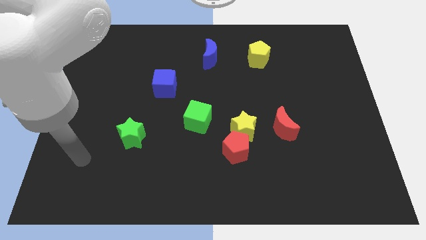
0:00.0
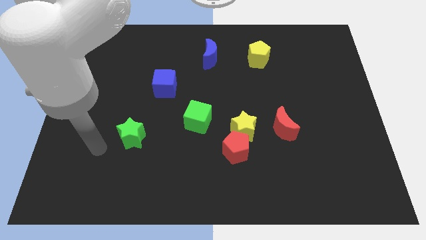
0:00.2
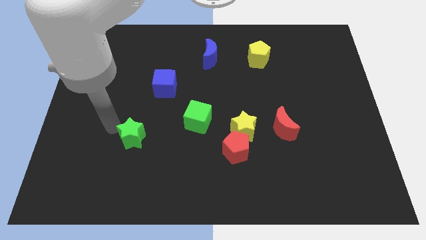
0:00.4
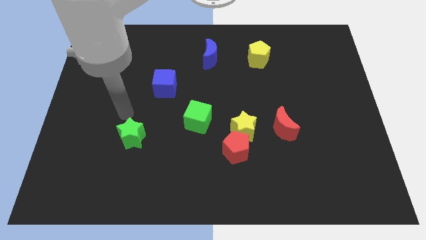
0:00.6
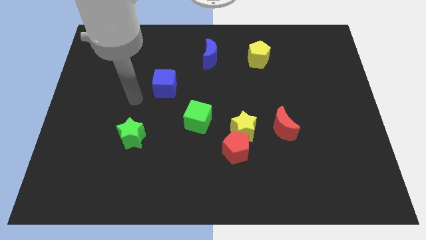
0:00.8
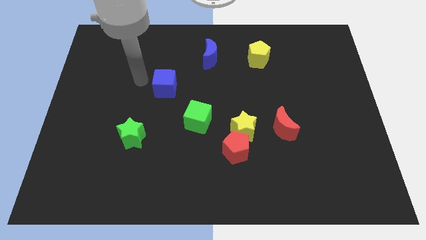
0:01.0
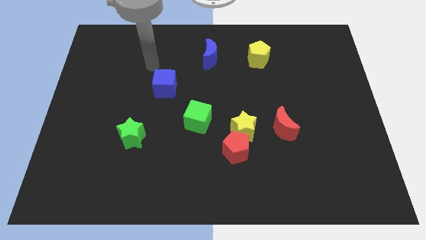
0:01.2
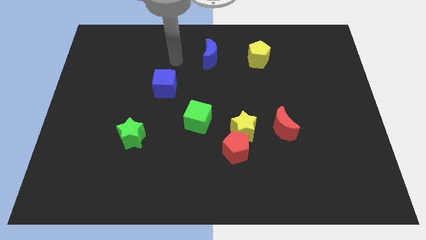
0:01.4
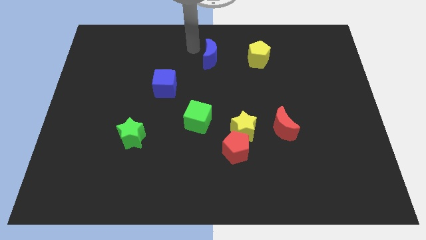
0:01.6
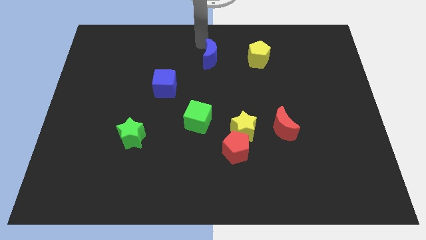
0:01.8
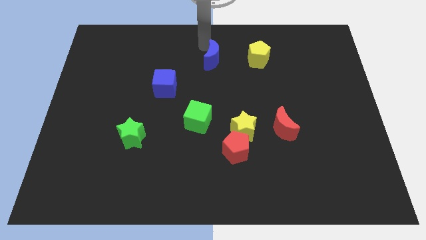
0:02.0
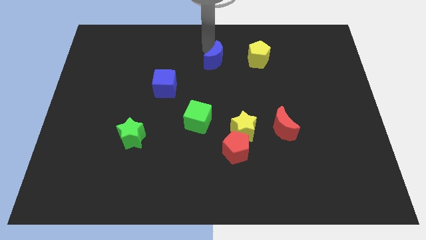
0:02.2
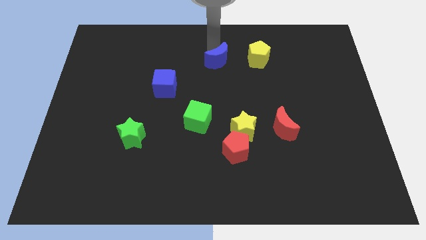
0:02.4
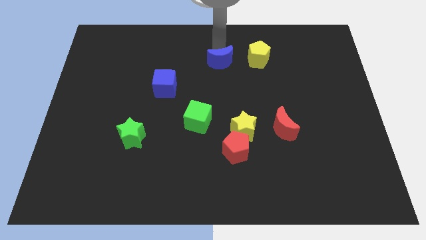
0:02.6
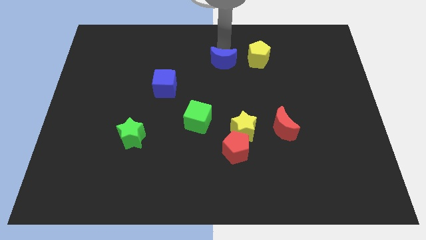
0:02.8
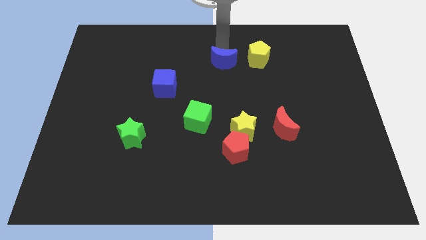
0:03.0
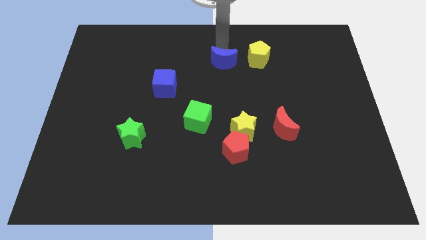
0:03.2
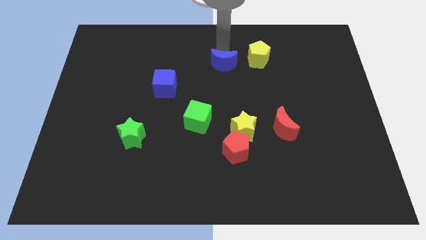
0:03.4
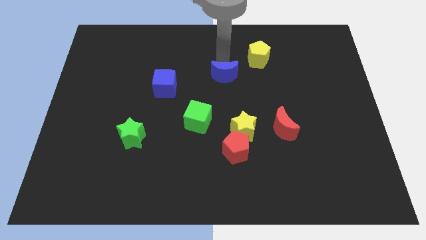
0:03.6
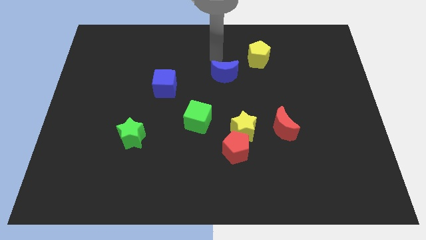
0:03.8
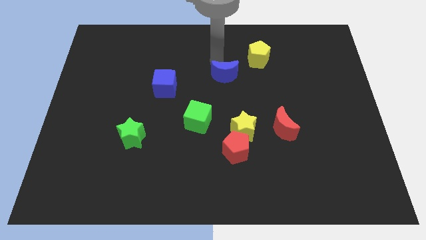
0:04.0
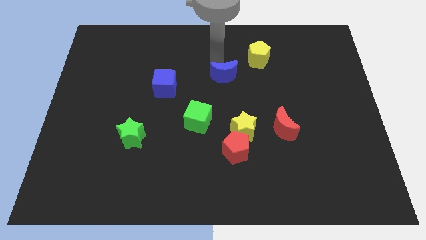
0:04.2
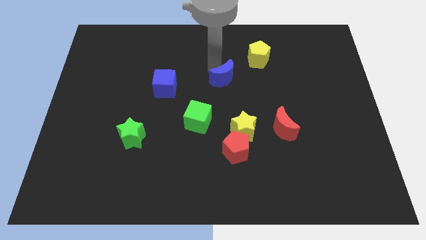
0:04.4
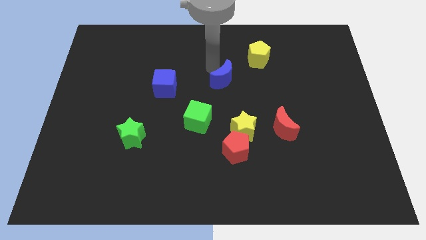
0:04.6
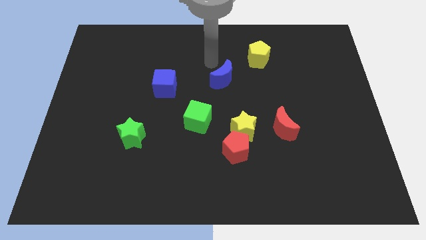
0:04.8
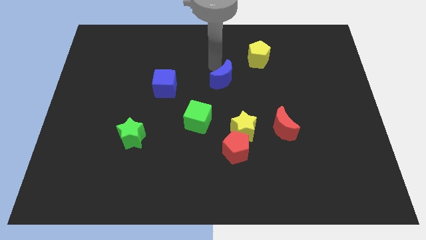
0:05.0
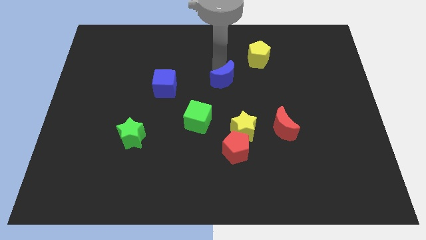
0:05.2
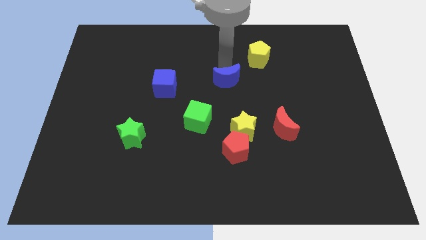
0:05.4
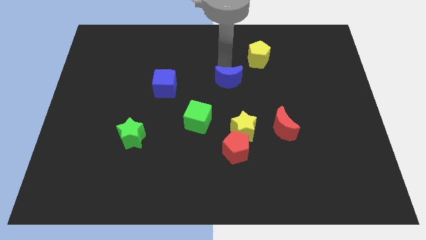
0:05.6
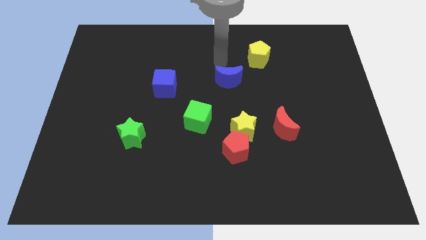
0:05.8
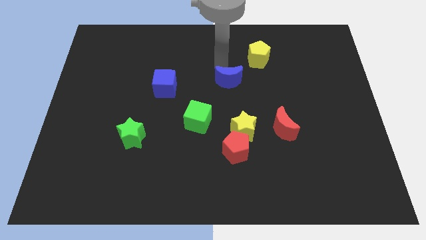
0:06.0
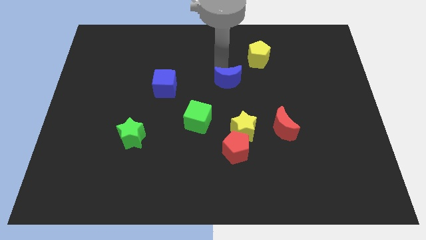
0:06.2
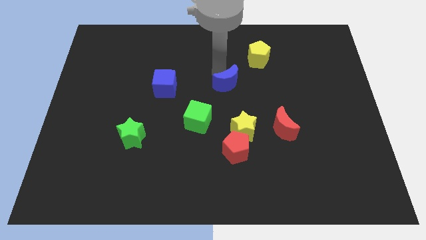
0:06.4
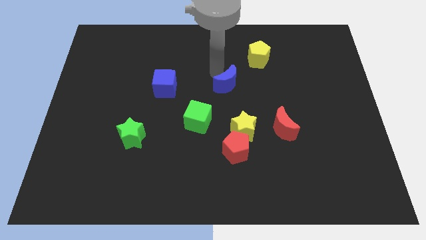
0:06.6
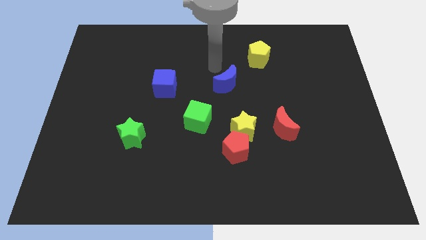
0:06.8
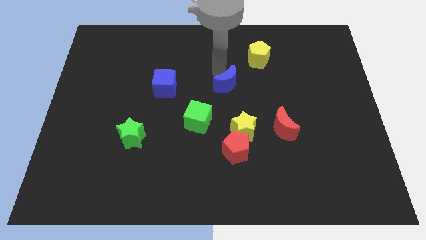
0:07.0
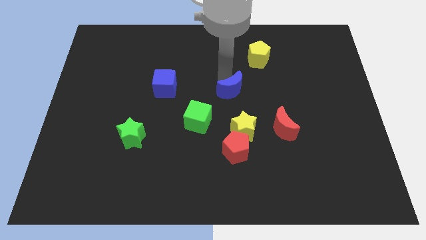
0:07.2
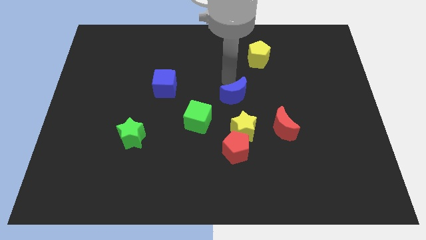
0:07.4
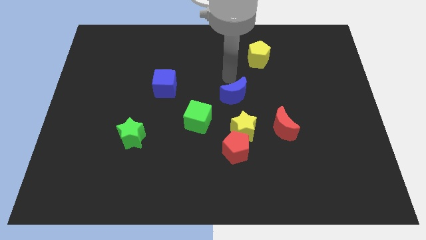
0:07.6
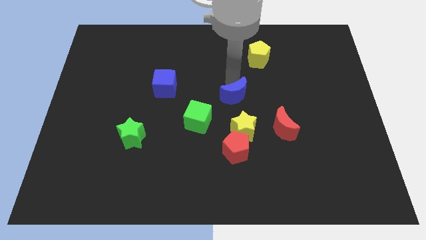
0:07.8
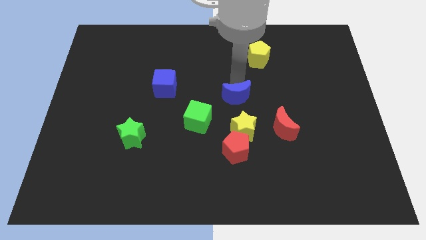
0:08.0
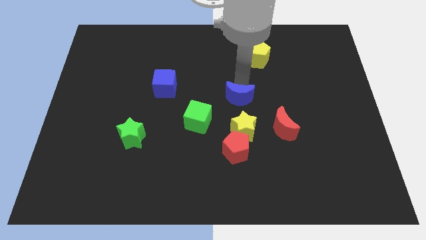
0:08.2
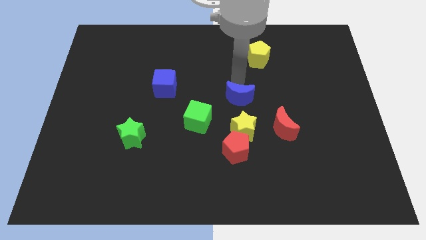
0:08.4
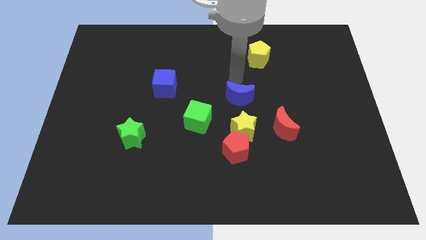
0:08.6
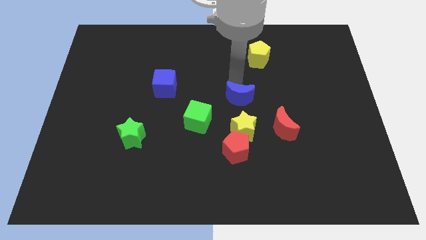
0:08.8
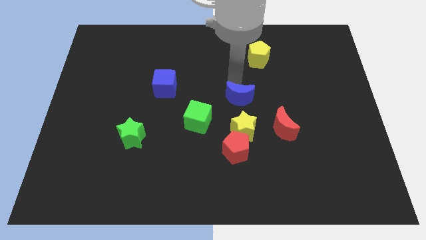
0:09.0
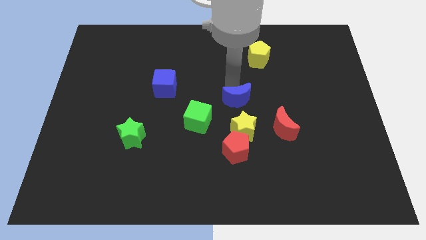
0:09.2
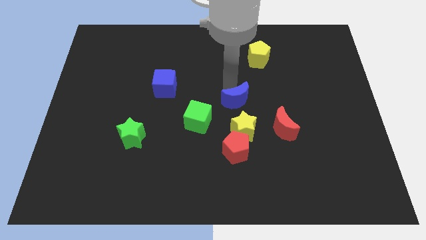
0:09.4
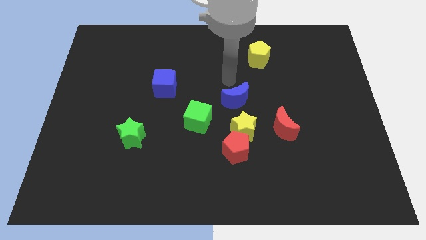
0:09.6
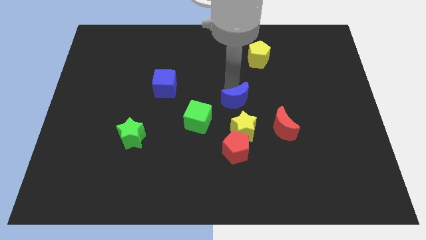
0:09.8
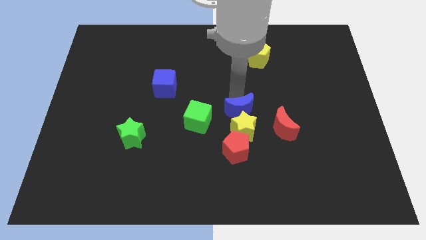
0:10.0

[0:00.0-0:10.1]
move the blue moon to the yellow star

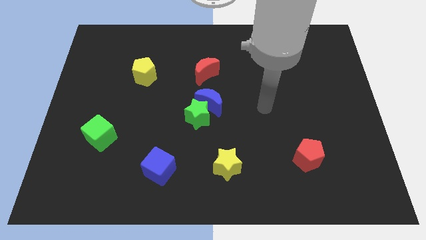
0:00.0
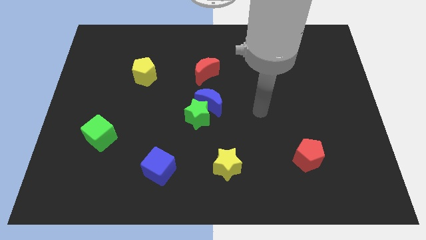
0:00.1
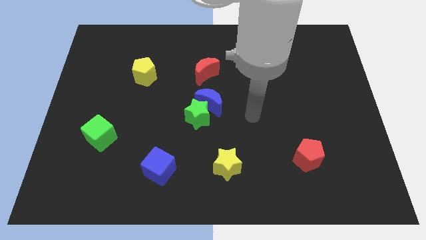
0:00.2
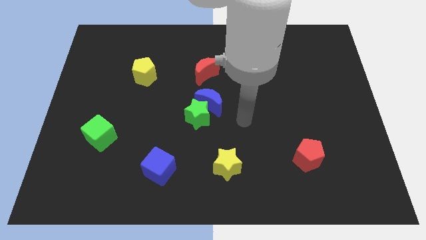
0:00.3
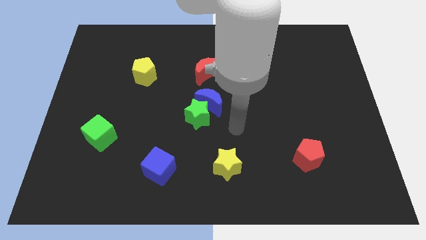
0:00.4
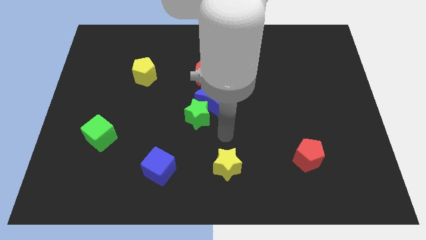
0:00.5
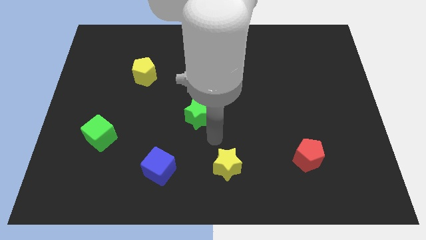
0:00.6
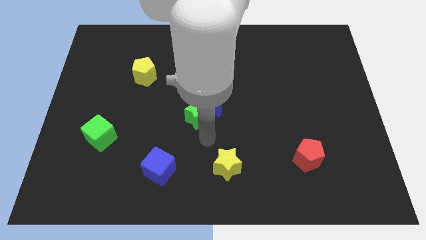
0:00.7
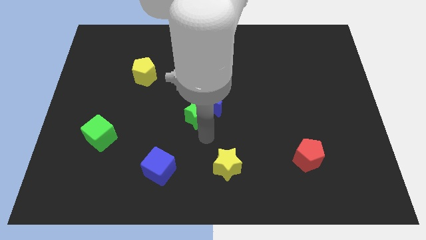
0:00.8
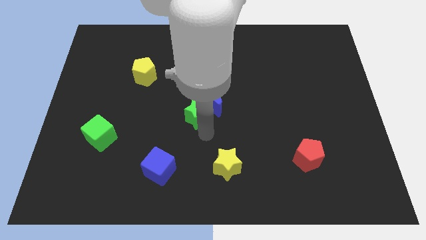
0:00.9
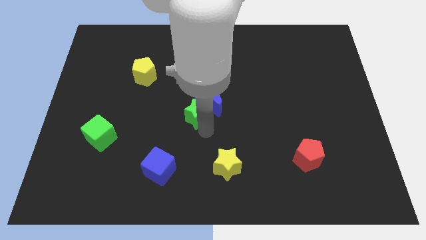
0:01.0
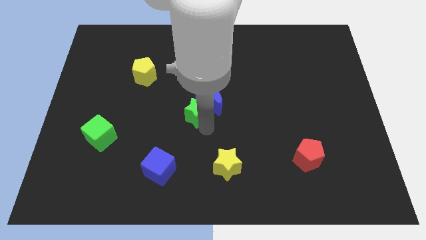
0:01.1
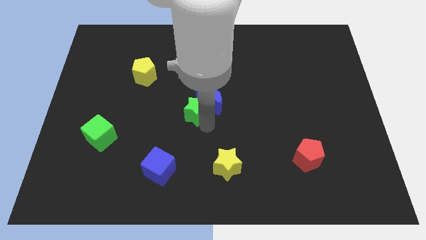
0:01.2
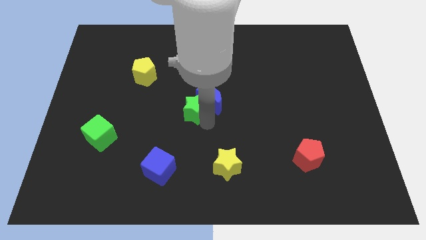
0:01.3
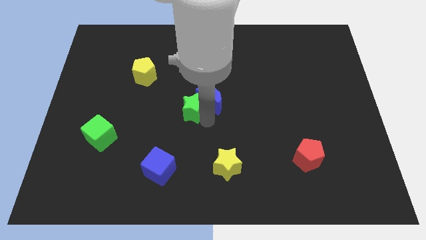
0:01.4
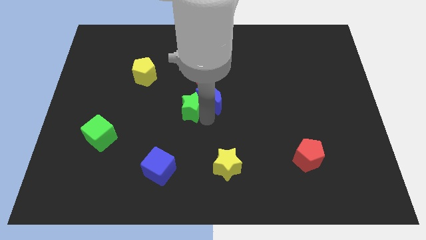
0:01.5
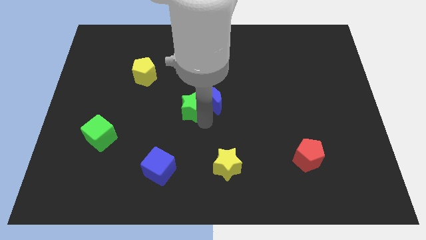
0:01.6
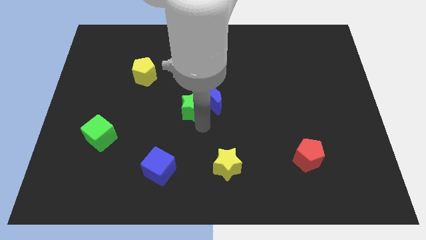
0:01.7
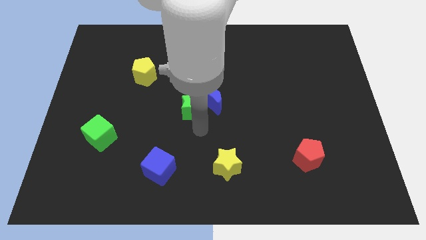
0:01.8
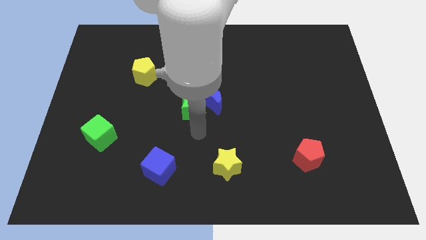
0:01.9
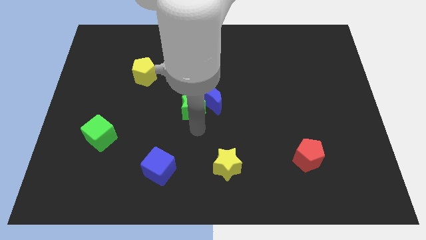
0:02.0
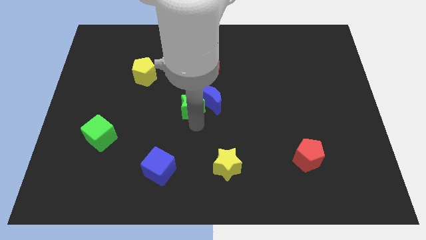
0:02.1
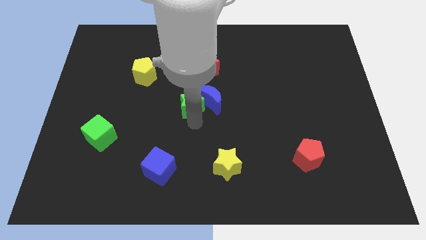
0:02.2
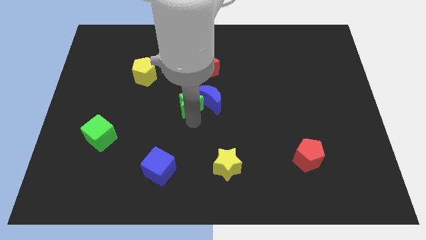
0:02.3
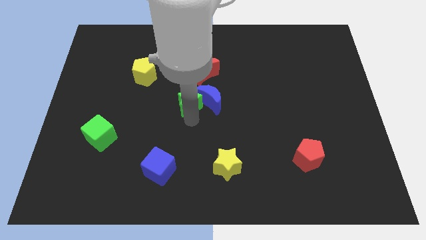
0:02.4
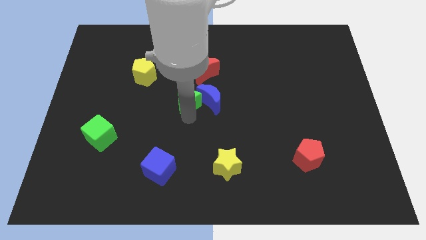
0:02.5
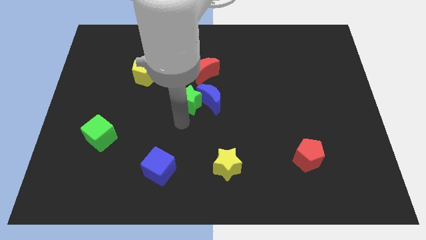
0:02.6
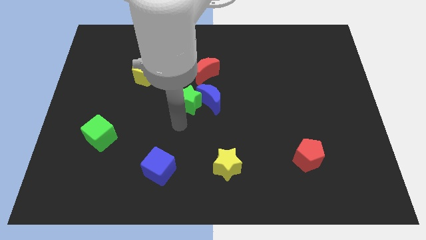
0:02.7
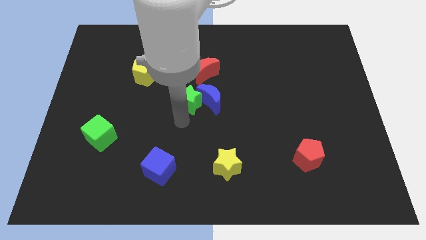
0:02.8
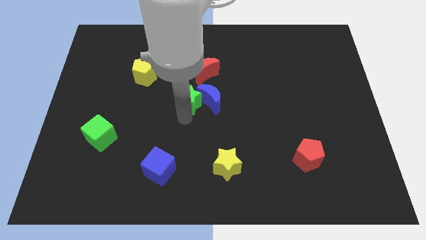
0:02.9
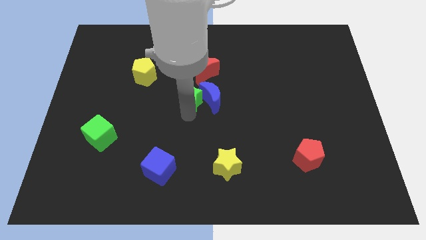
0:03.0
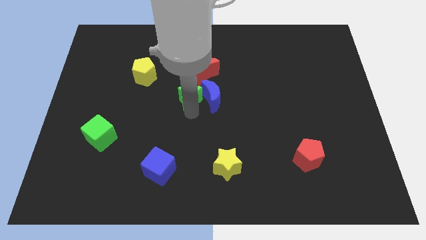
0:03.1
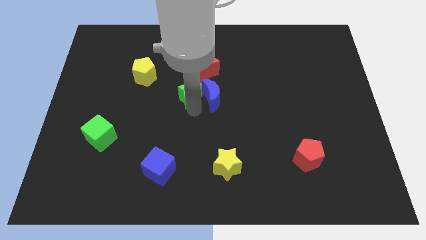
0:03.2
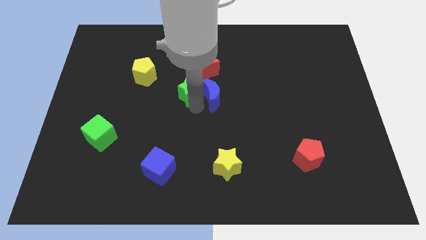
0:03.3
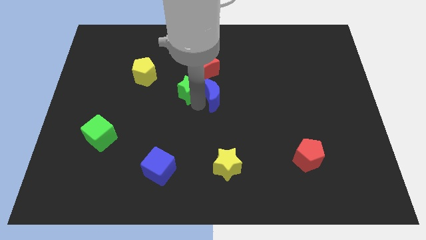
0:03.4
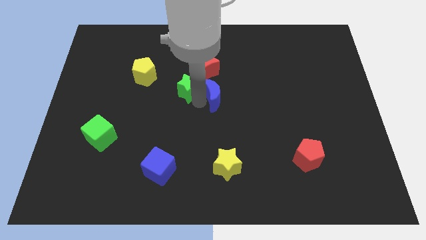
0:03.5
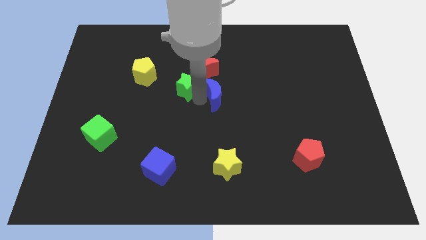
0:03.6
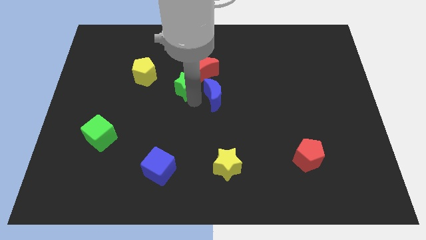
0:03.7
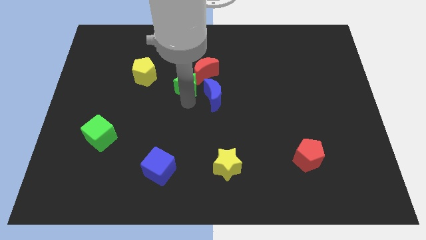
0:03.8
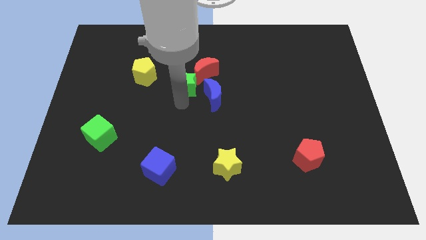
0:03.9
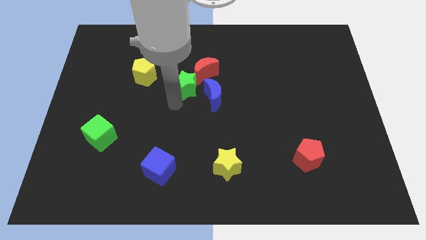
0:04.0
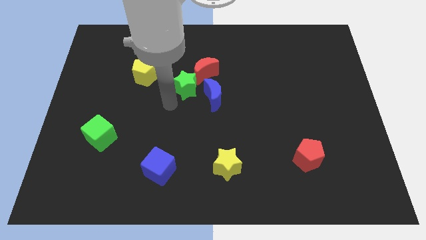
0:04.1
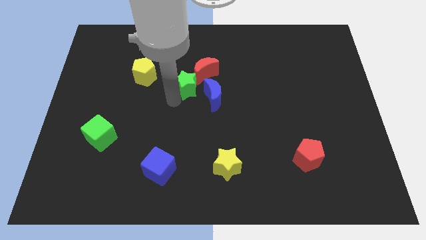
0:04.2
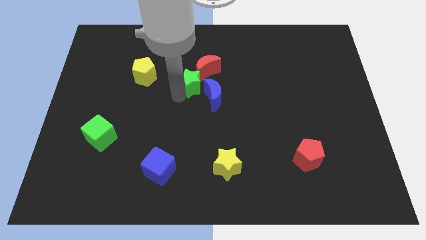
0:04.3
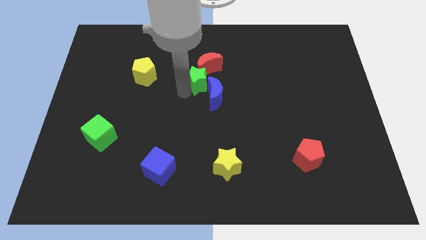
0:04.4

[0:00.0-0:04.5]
push the green star next to the red moon
